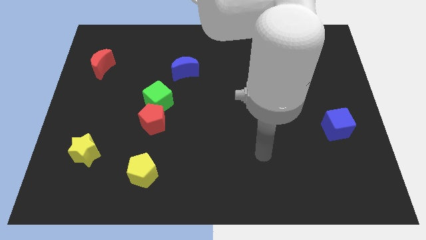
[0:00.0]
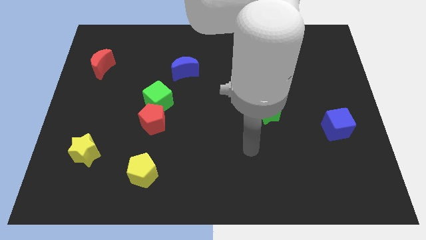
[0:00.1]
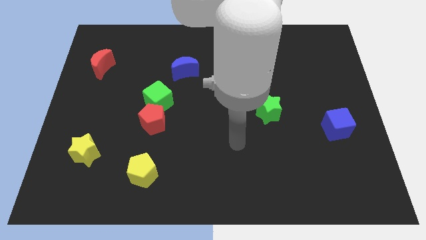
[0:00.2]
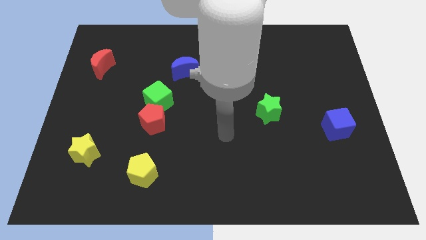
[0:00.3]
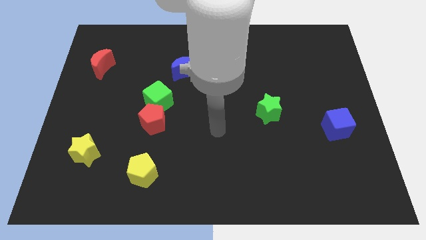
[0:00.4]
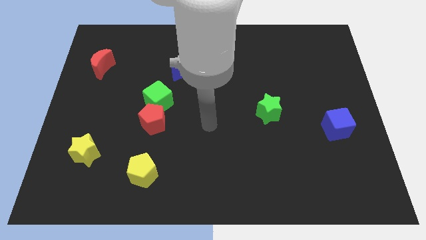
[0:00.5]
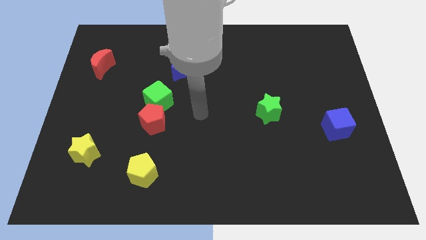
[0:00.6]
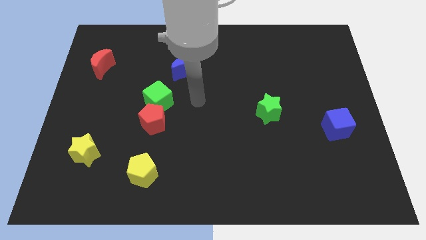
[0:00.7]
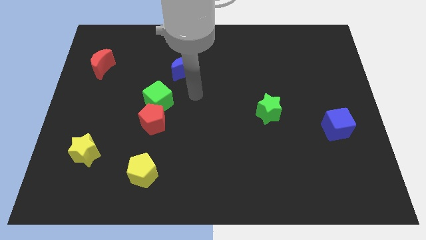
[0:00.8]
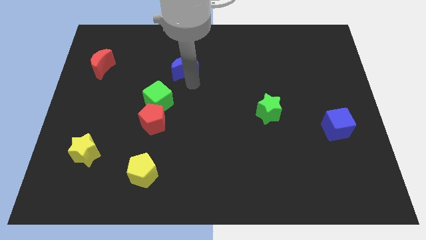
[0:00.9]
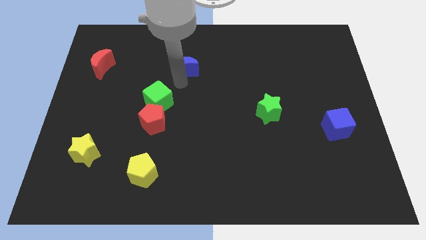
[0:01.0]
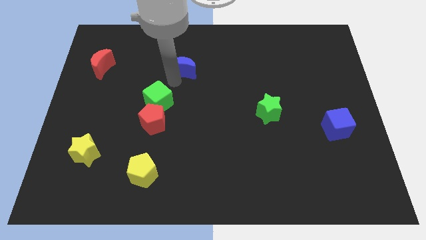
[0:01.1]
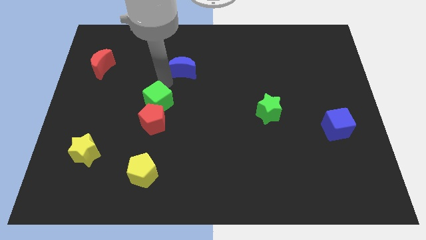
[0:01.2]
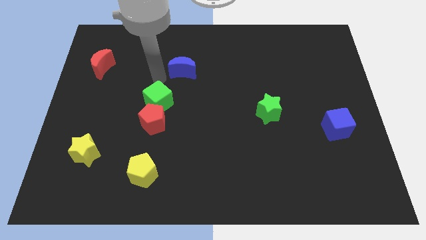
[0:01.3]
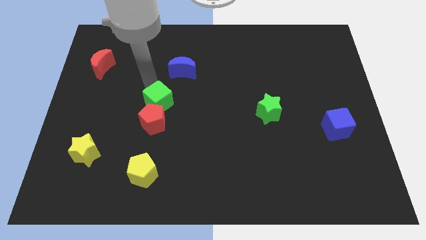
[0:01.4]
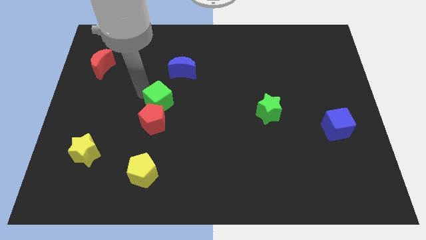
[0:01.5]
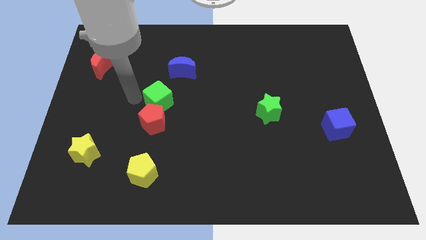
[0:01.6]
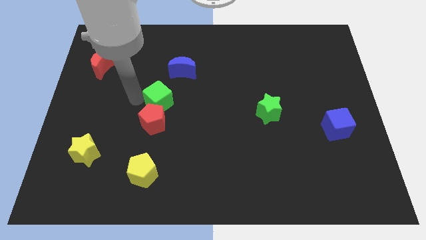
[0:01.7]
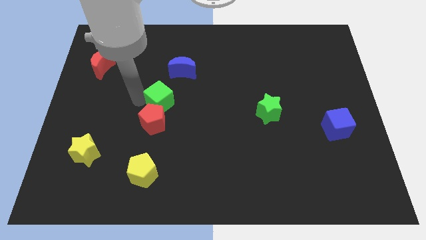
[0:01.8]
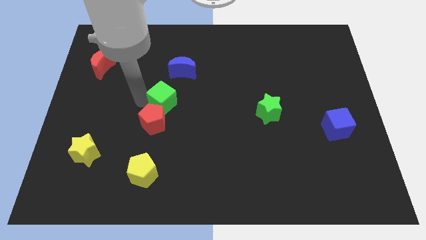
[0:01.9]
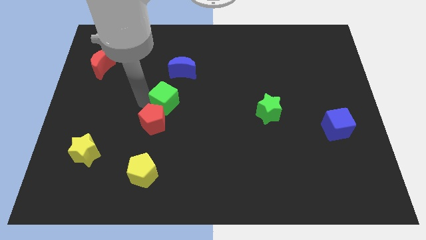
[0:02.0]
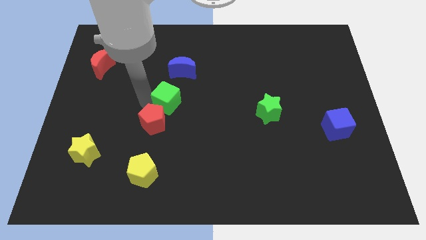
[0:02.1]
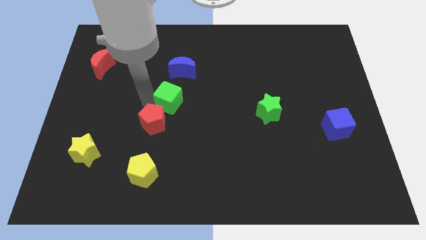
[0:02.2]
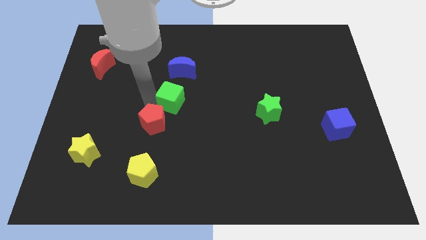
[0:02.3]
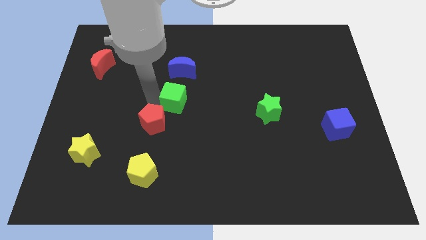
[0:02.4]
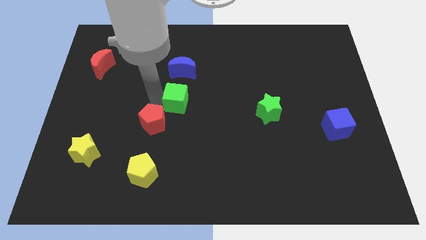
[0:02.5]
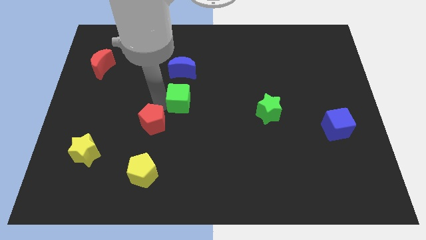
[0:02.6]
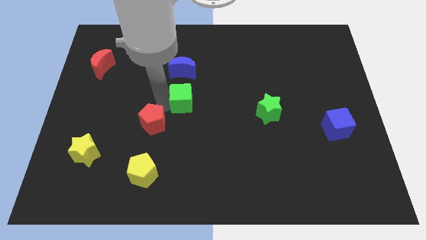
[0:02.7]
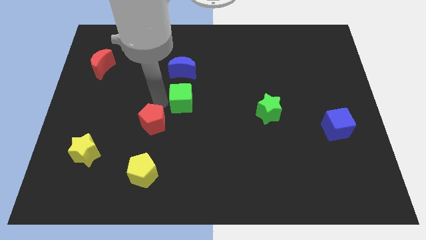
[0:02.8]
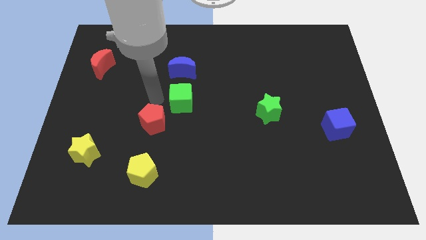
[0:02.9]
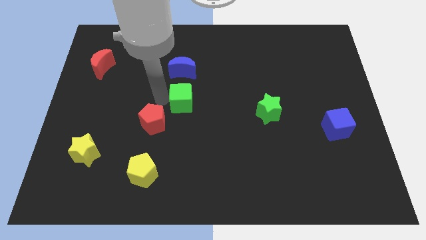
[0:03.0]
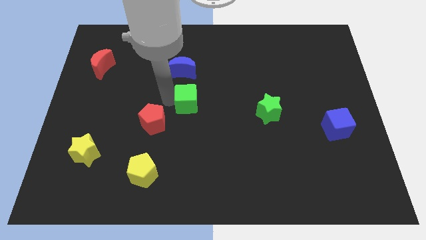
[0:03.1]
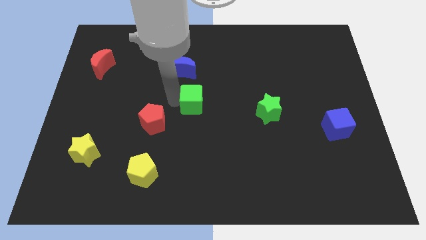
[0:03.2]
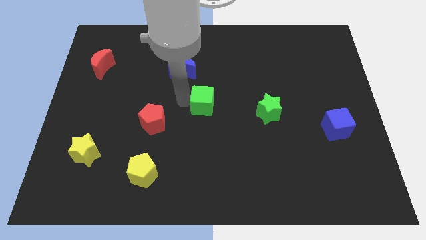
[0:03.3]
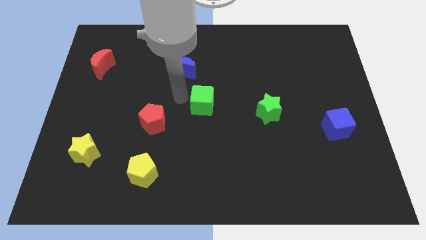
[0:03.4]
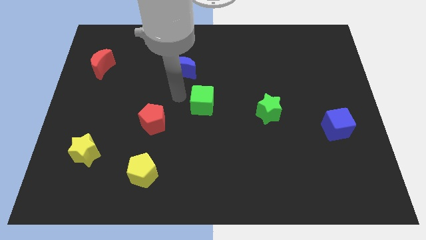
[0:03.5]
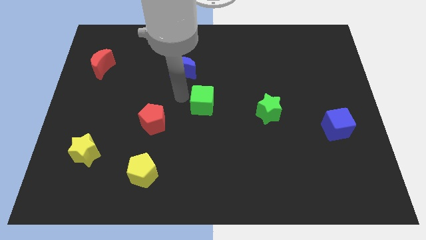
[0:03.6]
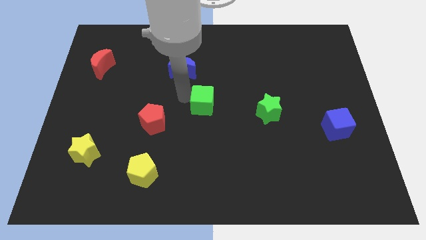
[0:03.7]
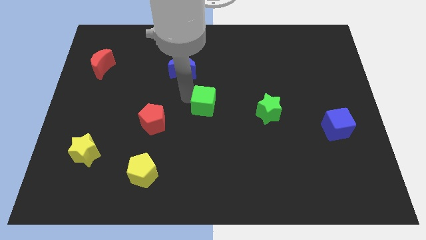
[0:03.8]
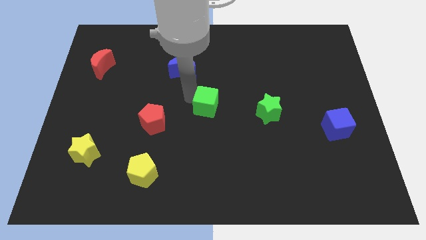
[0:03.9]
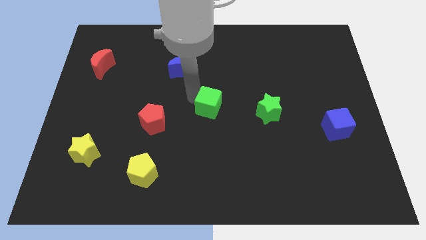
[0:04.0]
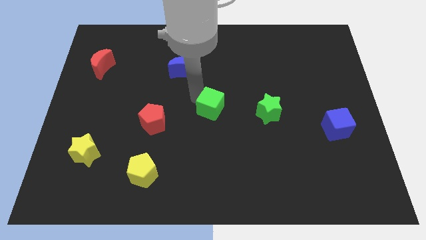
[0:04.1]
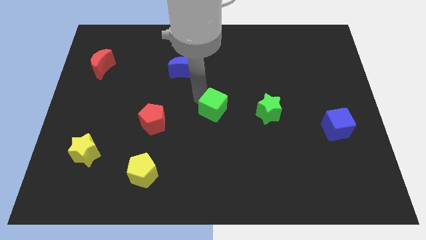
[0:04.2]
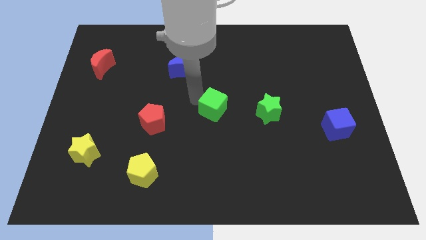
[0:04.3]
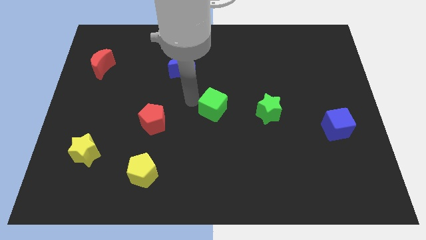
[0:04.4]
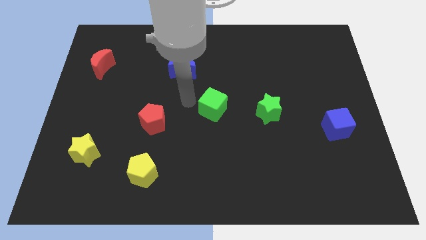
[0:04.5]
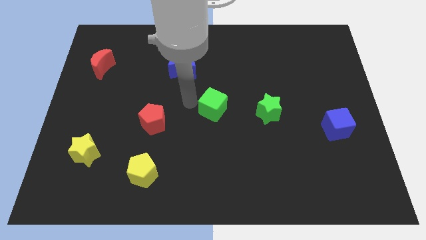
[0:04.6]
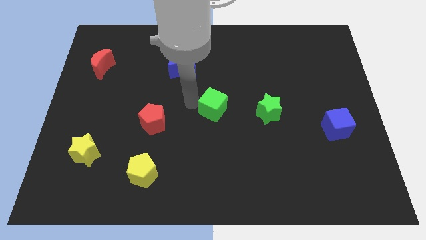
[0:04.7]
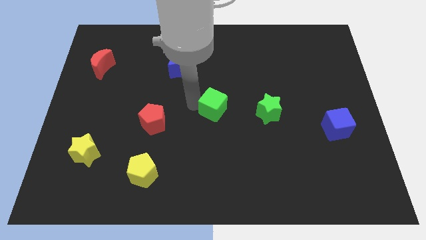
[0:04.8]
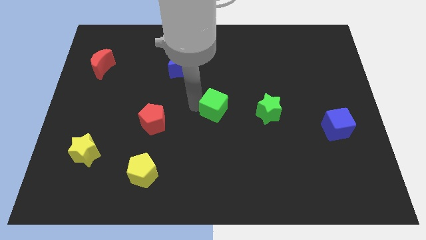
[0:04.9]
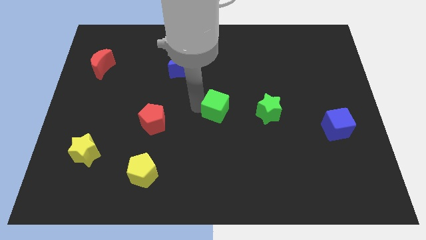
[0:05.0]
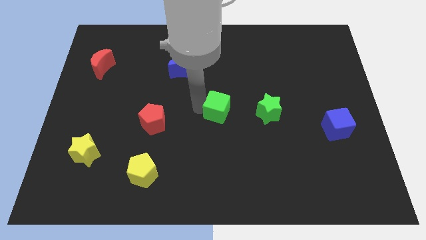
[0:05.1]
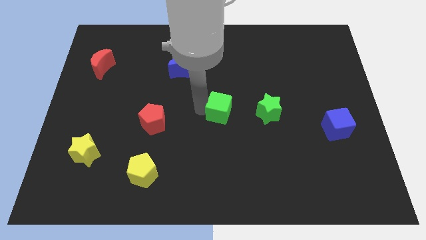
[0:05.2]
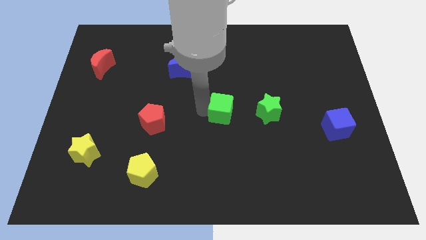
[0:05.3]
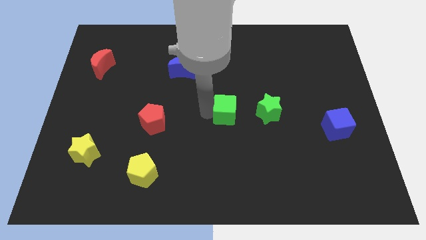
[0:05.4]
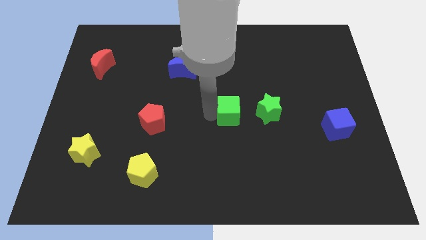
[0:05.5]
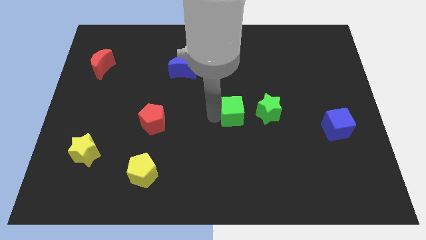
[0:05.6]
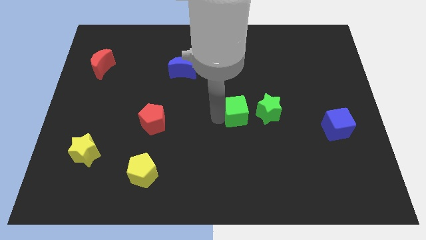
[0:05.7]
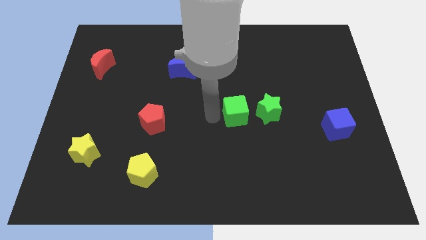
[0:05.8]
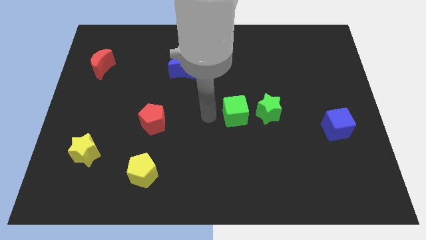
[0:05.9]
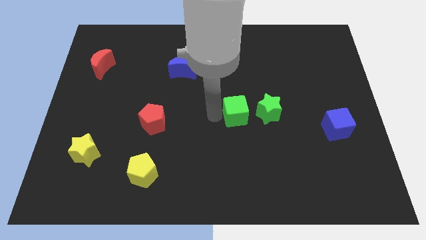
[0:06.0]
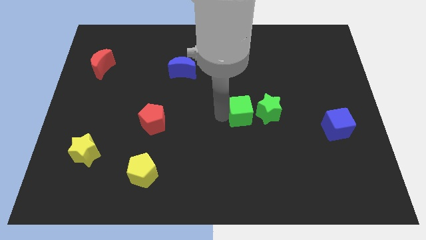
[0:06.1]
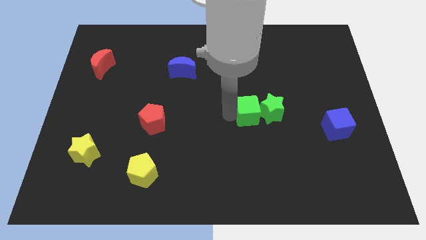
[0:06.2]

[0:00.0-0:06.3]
move the green cube close to the green star
